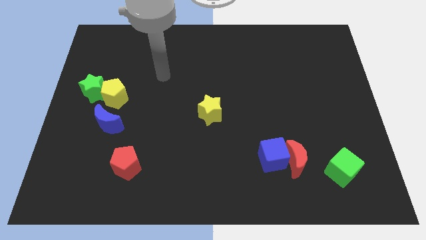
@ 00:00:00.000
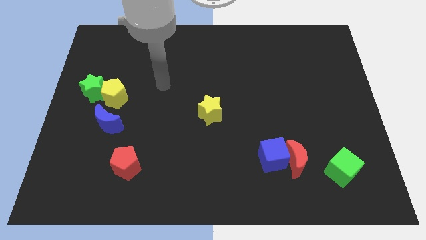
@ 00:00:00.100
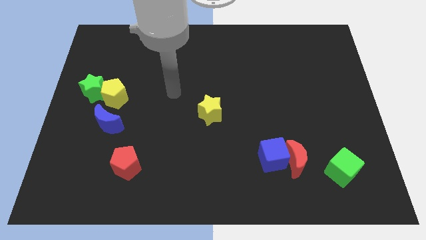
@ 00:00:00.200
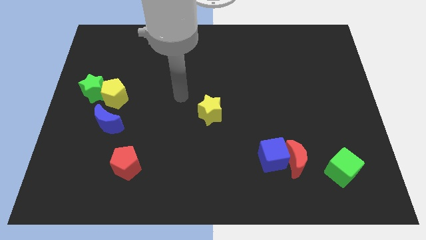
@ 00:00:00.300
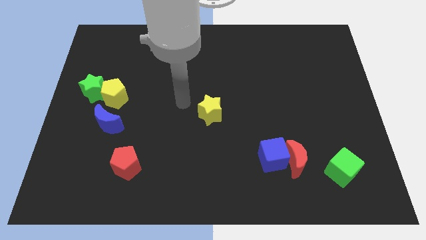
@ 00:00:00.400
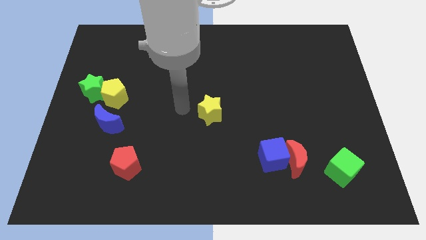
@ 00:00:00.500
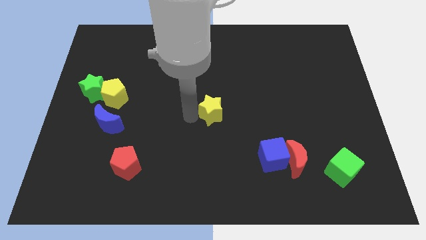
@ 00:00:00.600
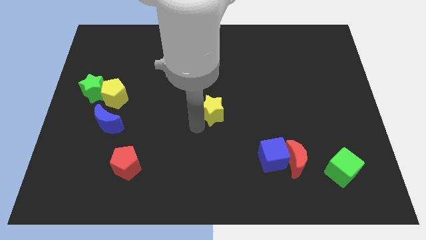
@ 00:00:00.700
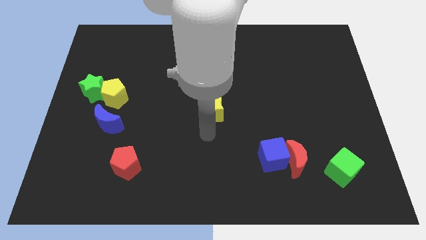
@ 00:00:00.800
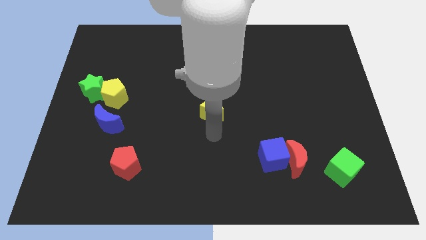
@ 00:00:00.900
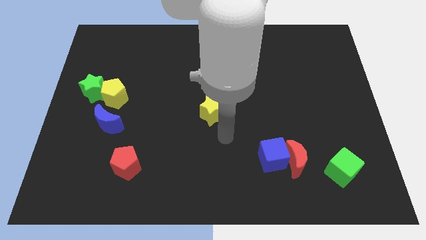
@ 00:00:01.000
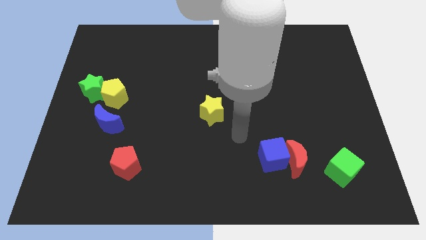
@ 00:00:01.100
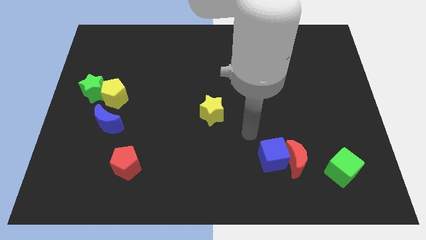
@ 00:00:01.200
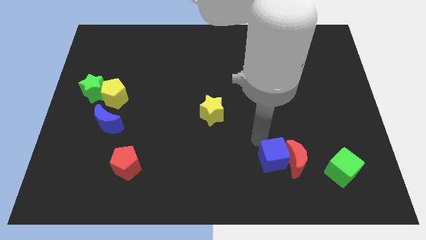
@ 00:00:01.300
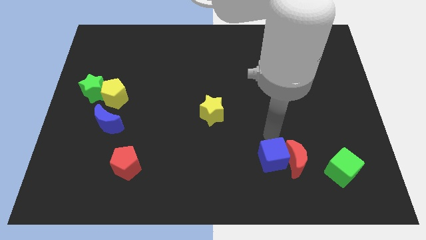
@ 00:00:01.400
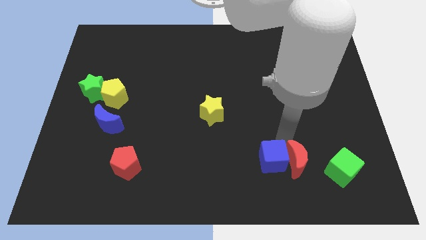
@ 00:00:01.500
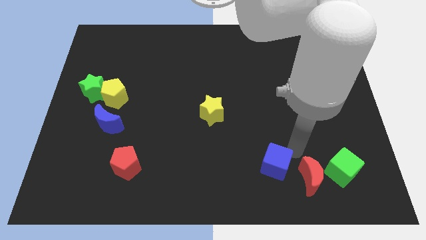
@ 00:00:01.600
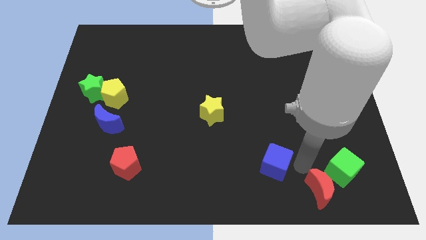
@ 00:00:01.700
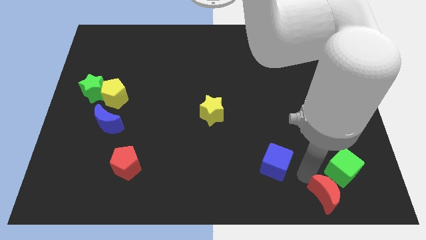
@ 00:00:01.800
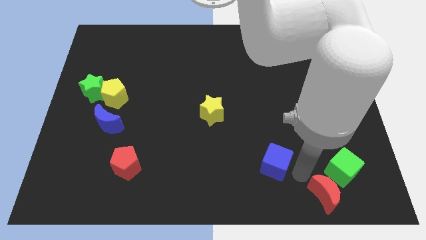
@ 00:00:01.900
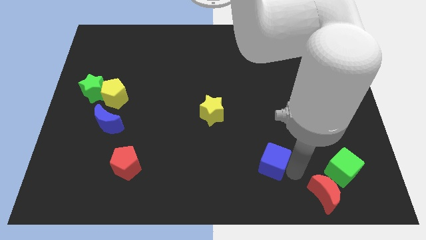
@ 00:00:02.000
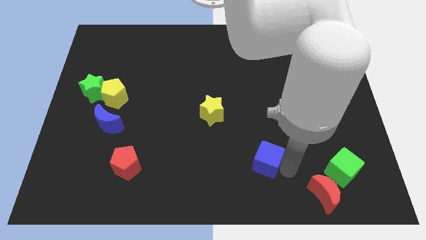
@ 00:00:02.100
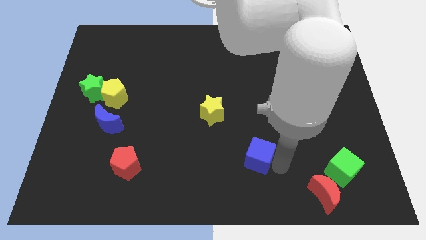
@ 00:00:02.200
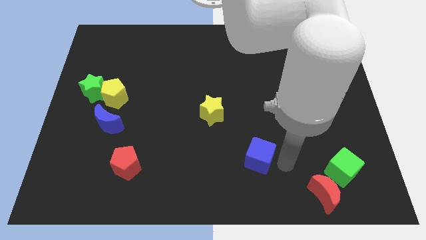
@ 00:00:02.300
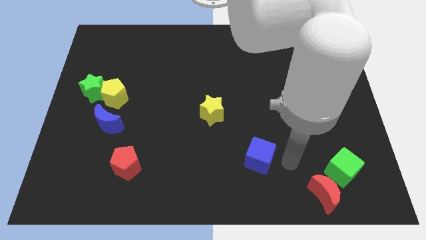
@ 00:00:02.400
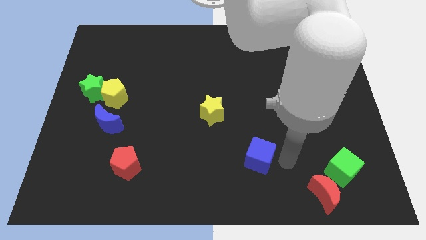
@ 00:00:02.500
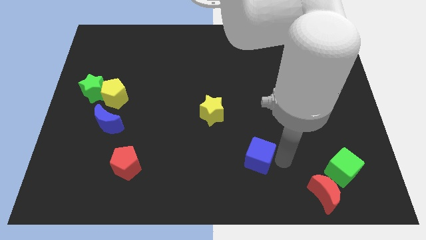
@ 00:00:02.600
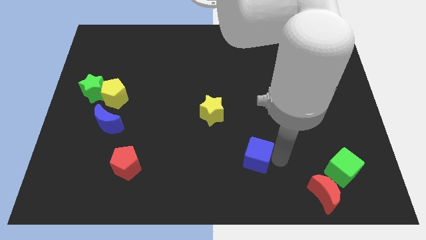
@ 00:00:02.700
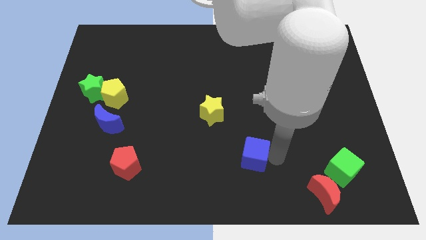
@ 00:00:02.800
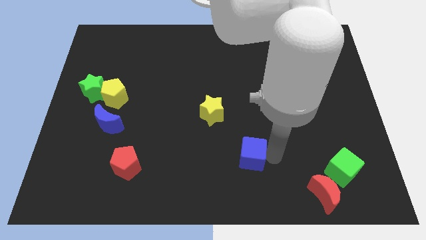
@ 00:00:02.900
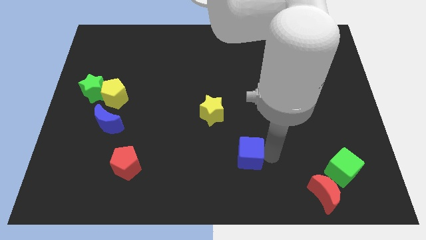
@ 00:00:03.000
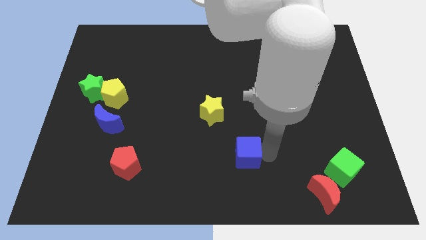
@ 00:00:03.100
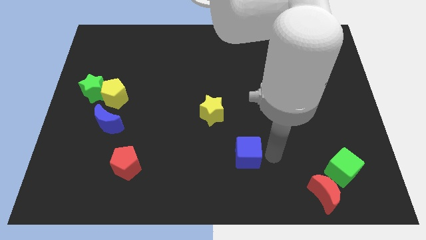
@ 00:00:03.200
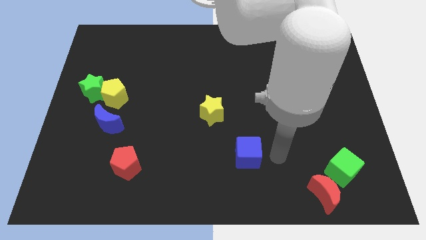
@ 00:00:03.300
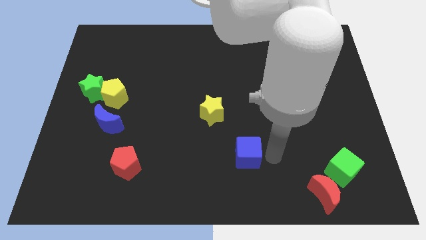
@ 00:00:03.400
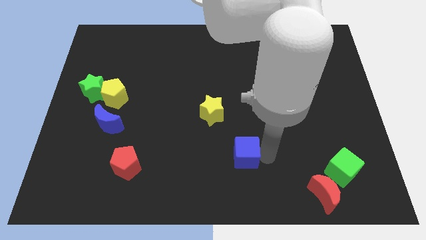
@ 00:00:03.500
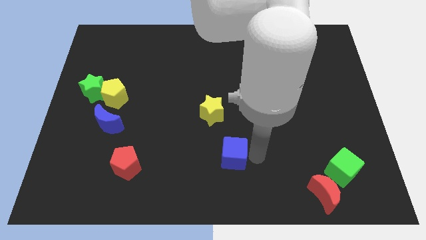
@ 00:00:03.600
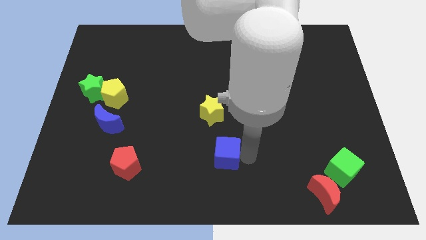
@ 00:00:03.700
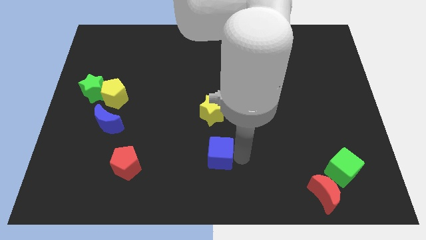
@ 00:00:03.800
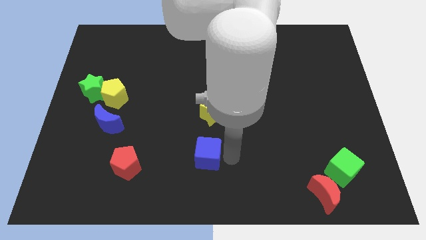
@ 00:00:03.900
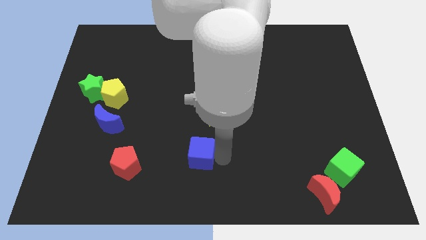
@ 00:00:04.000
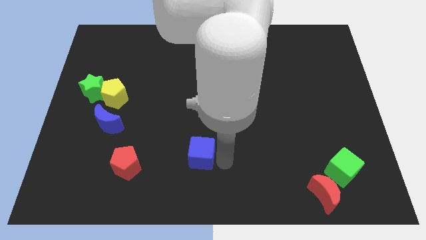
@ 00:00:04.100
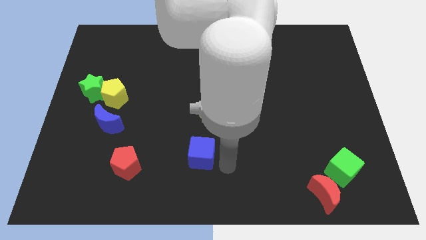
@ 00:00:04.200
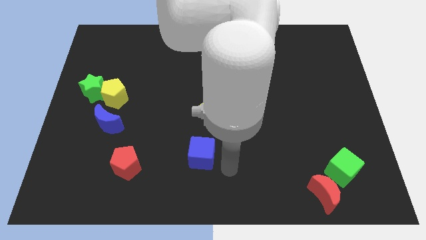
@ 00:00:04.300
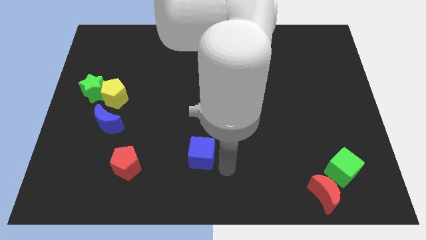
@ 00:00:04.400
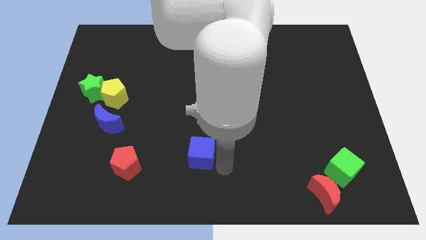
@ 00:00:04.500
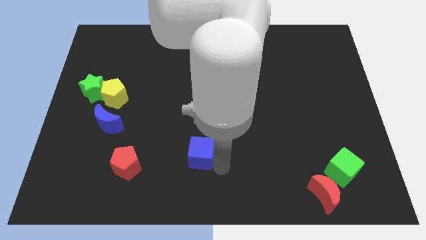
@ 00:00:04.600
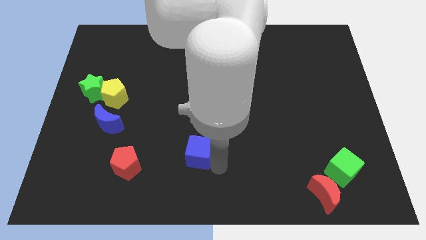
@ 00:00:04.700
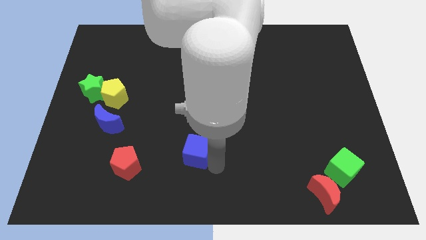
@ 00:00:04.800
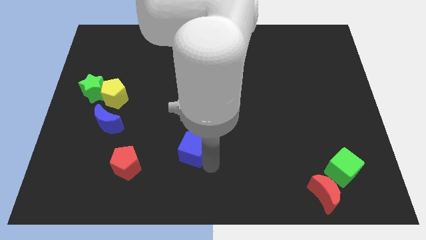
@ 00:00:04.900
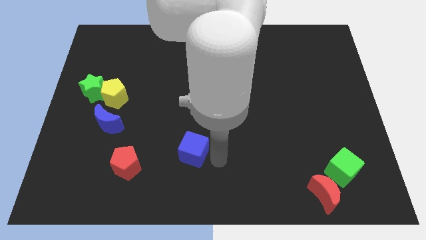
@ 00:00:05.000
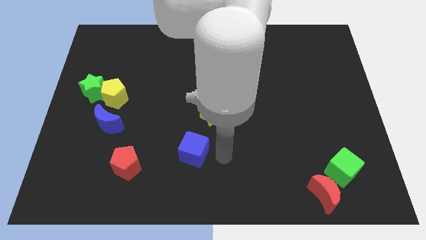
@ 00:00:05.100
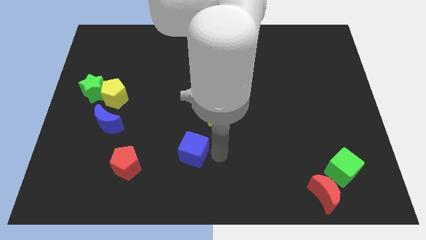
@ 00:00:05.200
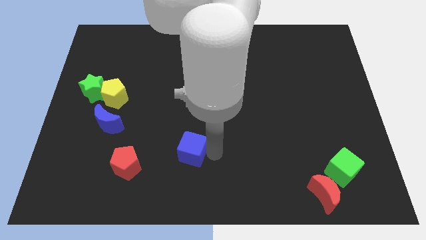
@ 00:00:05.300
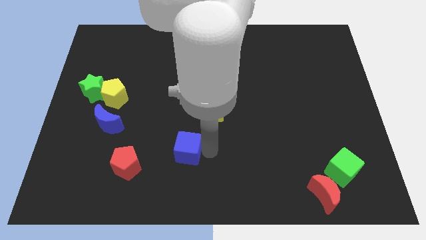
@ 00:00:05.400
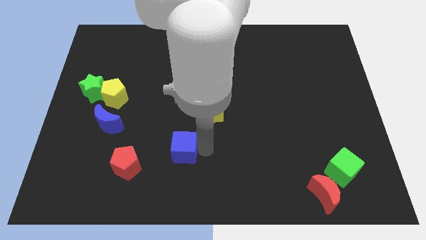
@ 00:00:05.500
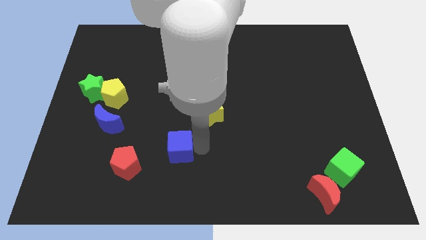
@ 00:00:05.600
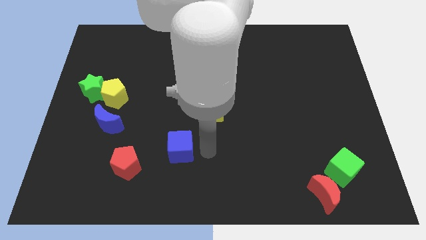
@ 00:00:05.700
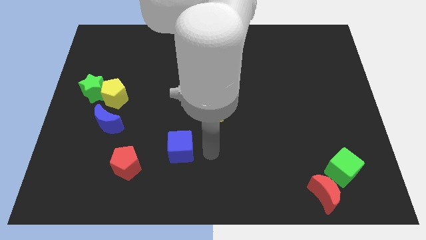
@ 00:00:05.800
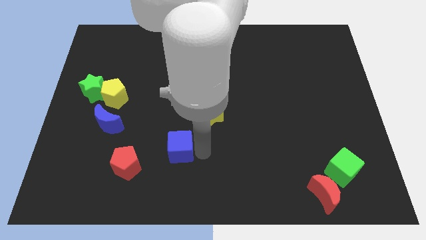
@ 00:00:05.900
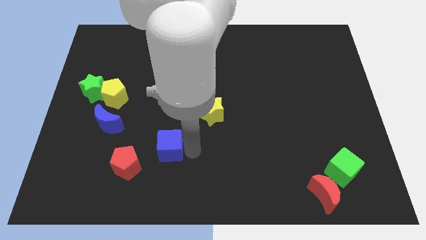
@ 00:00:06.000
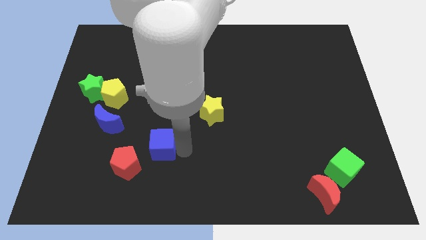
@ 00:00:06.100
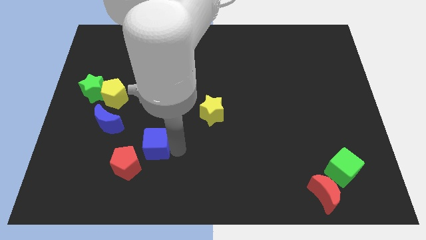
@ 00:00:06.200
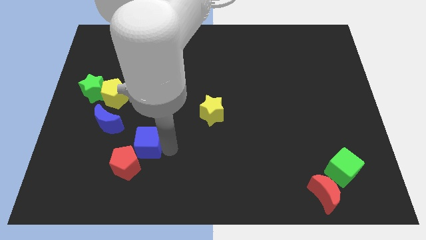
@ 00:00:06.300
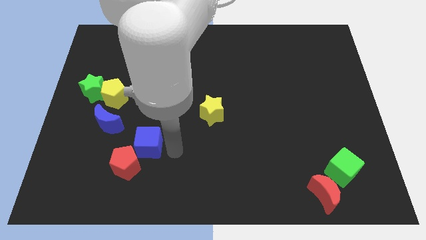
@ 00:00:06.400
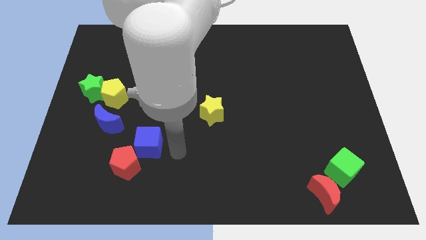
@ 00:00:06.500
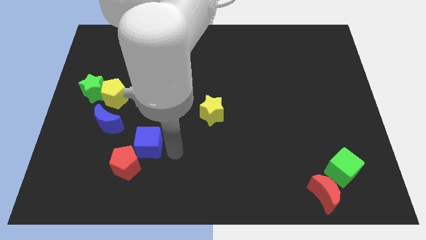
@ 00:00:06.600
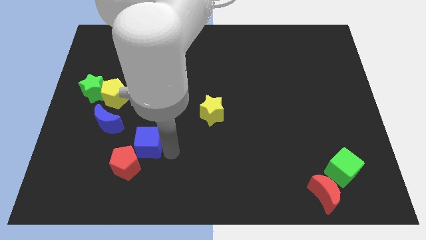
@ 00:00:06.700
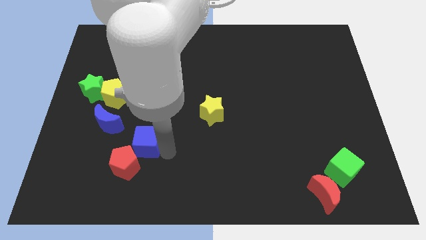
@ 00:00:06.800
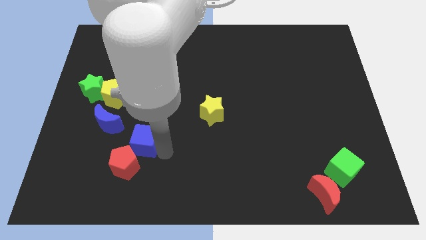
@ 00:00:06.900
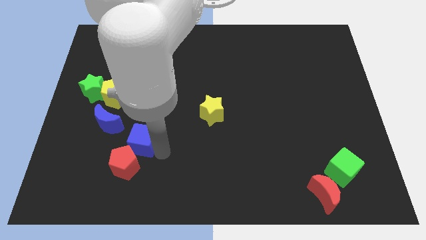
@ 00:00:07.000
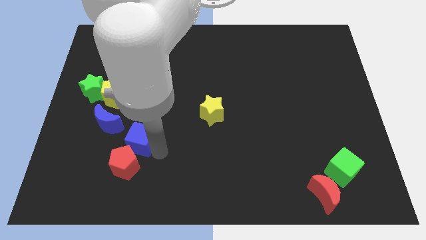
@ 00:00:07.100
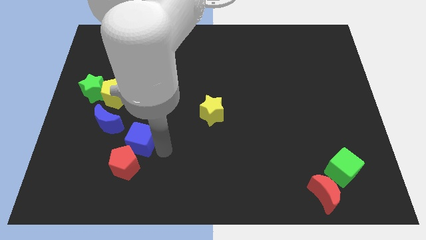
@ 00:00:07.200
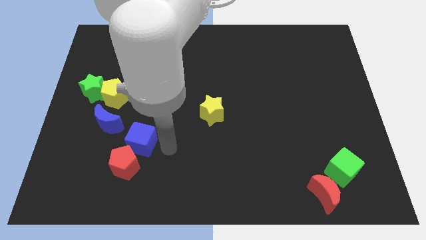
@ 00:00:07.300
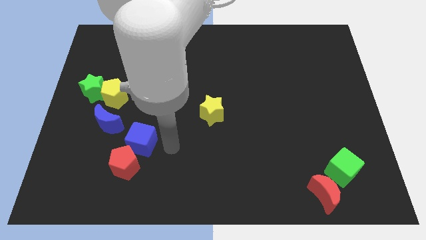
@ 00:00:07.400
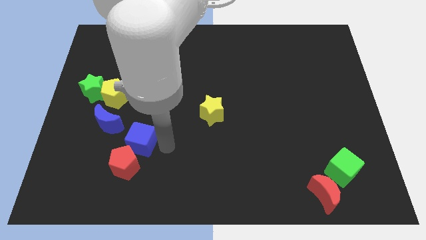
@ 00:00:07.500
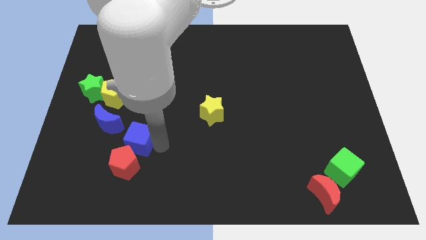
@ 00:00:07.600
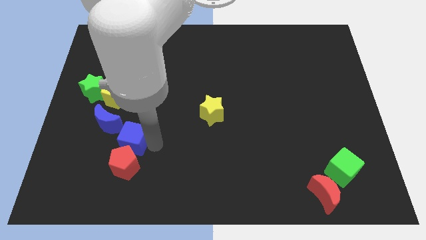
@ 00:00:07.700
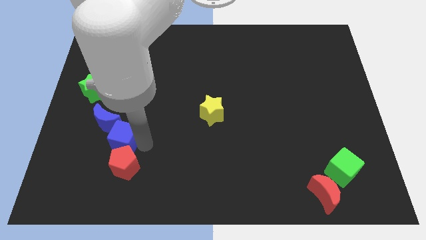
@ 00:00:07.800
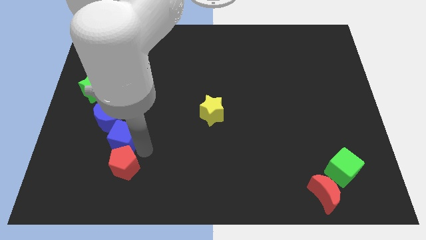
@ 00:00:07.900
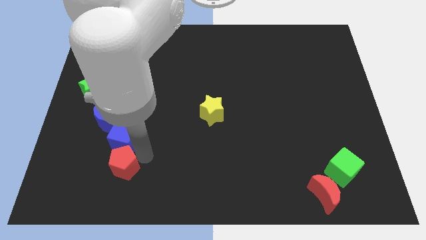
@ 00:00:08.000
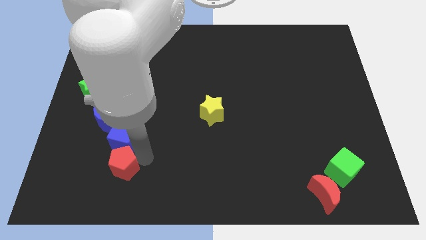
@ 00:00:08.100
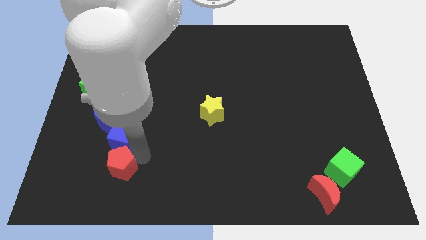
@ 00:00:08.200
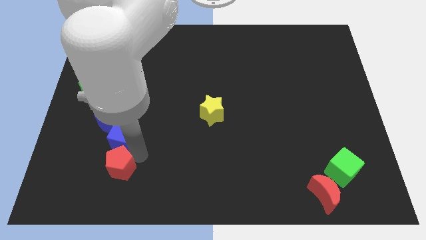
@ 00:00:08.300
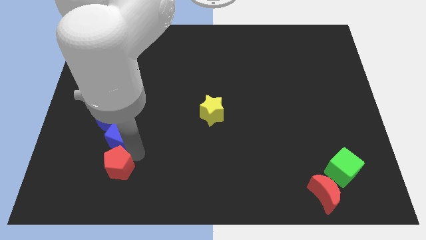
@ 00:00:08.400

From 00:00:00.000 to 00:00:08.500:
slide the blue cube to the blue moon
